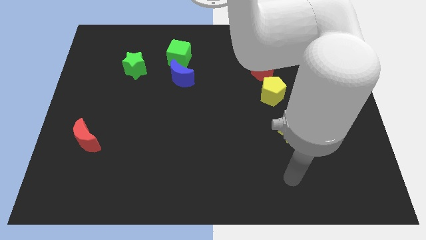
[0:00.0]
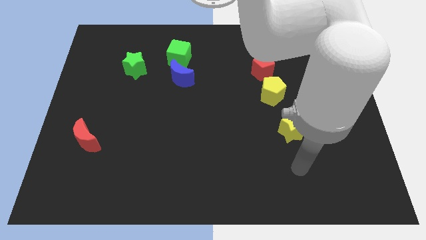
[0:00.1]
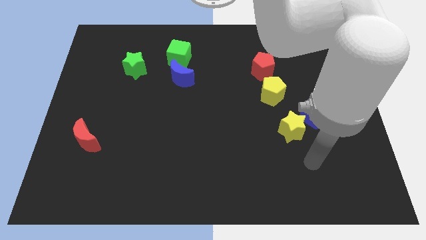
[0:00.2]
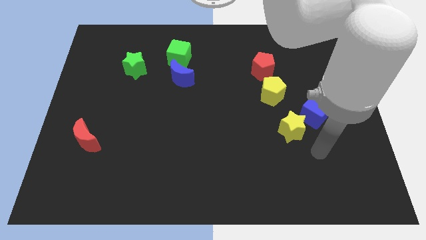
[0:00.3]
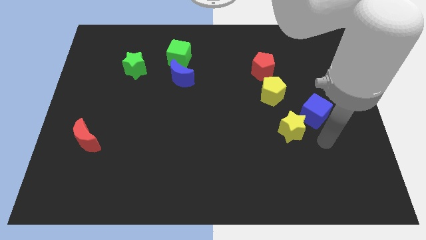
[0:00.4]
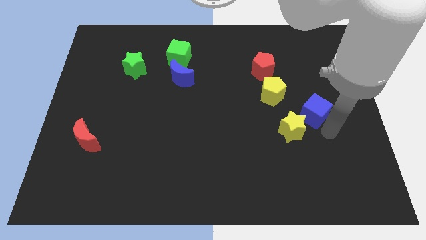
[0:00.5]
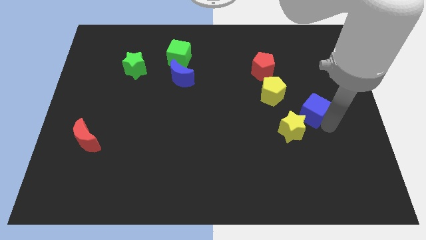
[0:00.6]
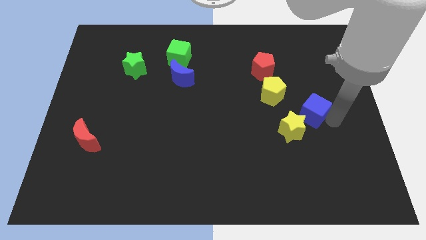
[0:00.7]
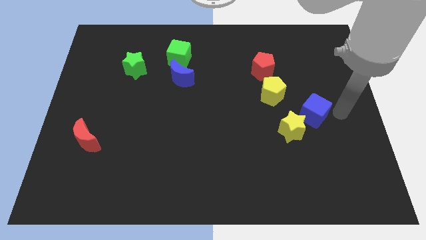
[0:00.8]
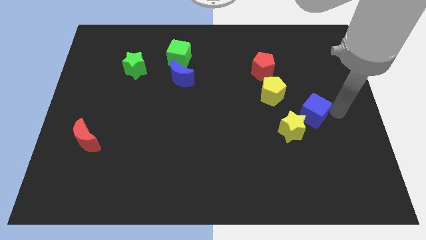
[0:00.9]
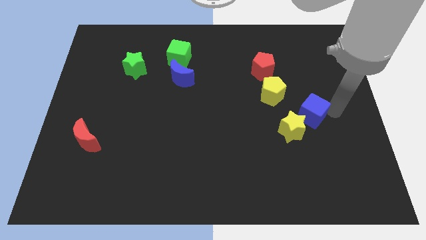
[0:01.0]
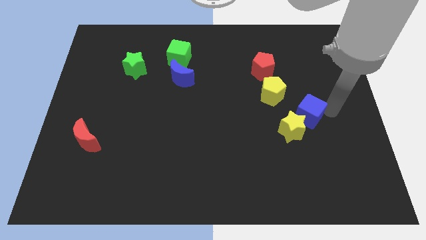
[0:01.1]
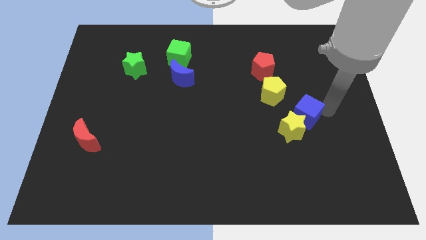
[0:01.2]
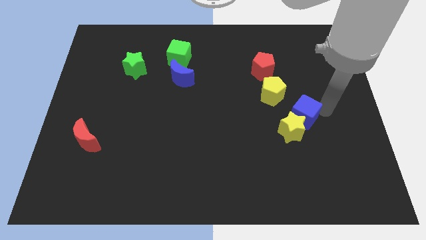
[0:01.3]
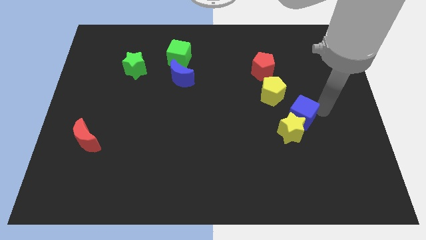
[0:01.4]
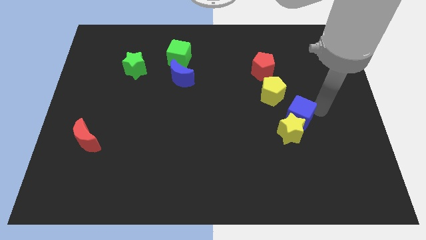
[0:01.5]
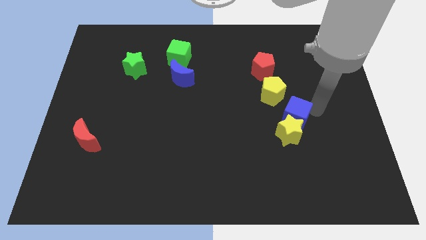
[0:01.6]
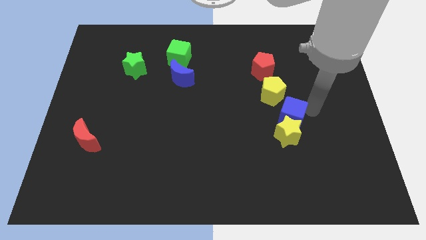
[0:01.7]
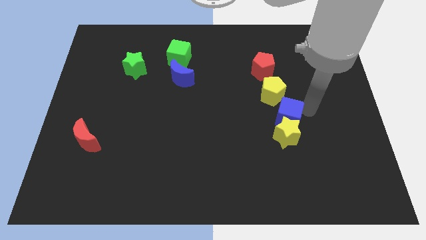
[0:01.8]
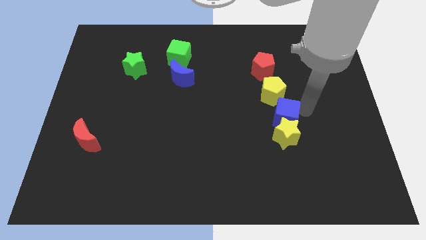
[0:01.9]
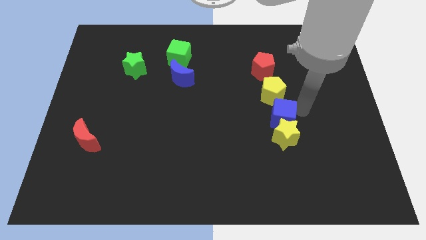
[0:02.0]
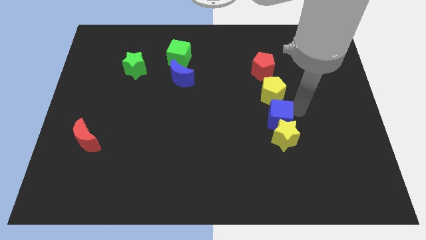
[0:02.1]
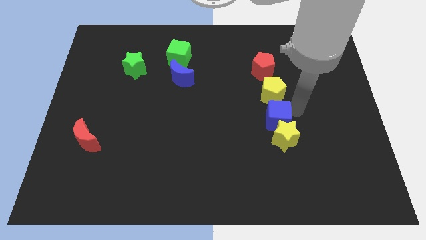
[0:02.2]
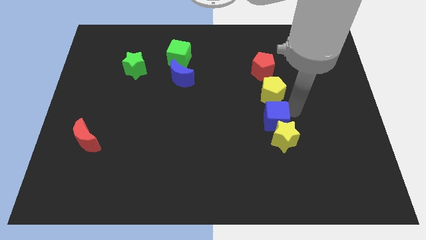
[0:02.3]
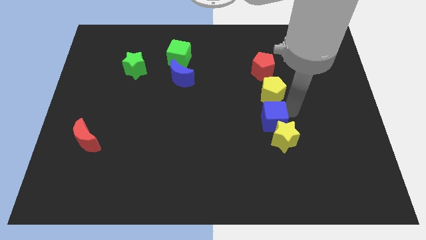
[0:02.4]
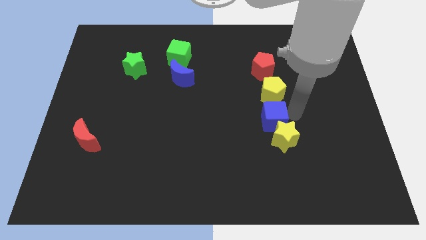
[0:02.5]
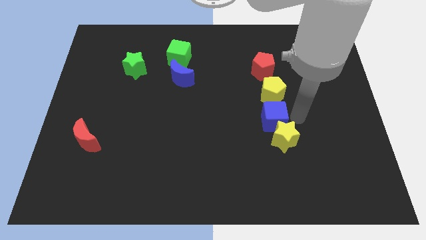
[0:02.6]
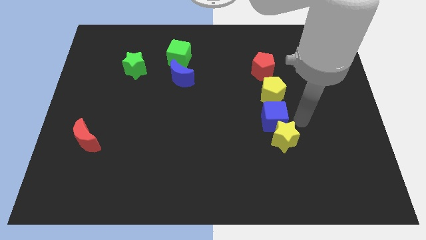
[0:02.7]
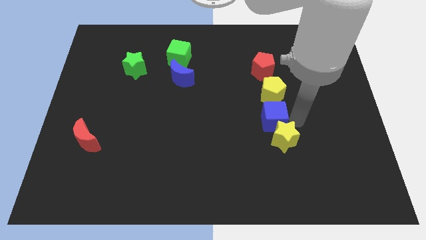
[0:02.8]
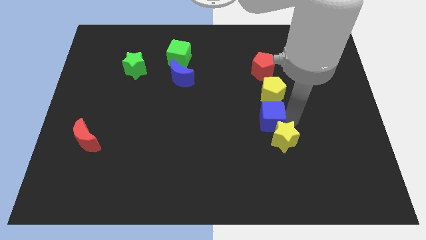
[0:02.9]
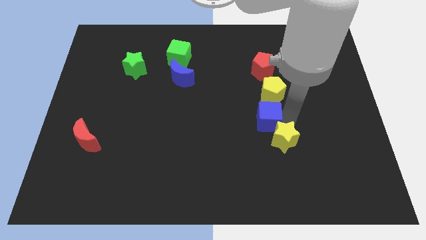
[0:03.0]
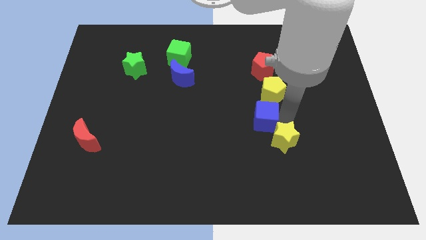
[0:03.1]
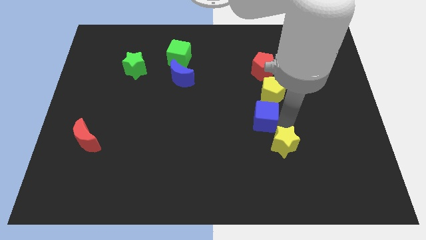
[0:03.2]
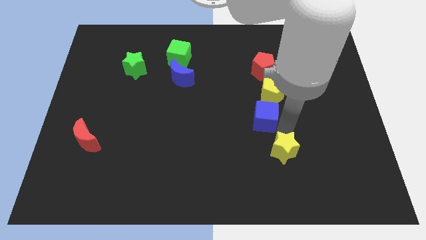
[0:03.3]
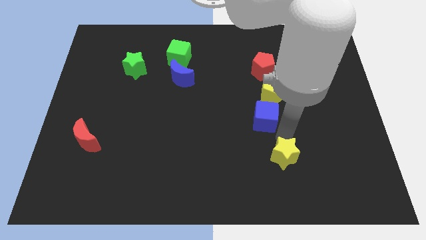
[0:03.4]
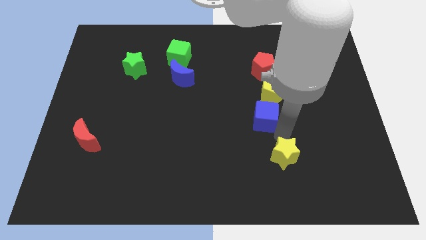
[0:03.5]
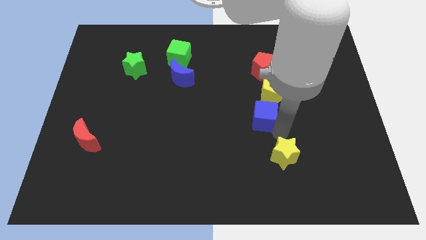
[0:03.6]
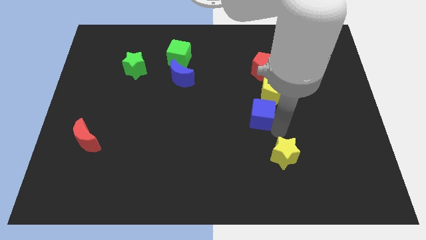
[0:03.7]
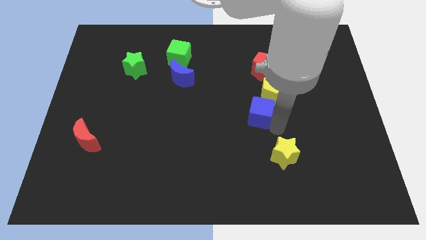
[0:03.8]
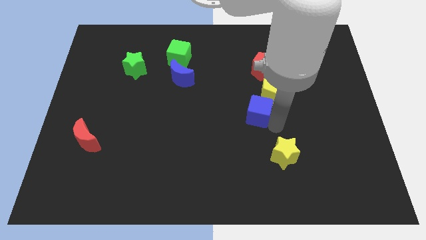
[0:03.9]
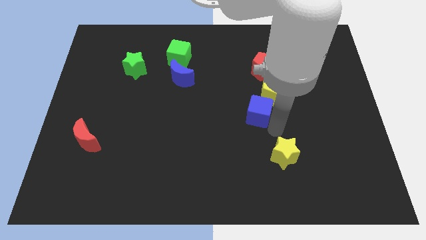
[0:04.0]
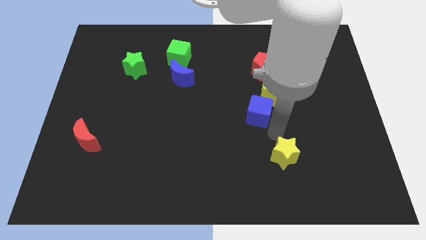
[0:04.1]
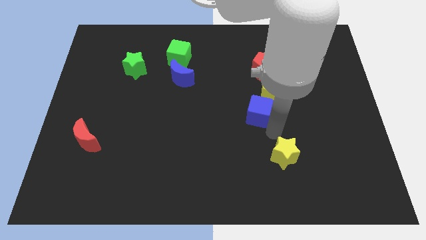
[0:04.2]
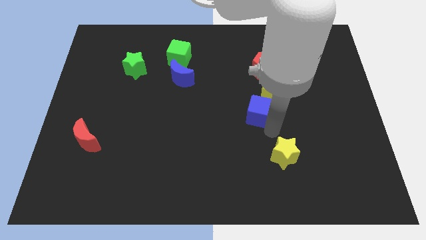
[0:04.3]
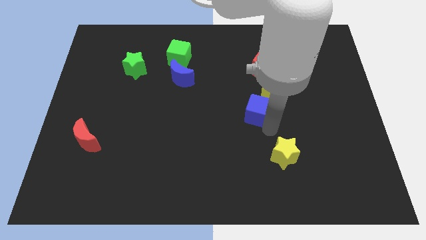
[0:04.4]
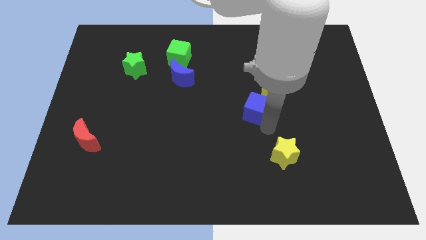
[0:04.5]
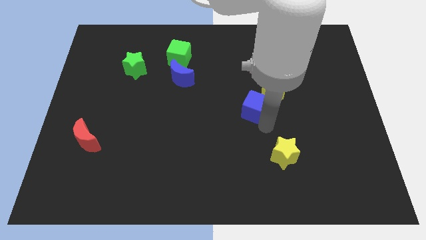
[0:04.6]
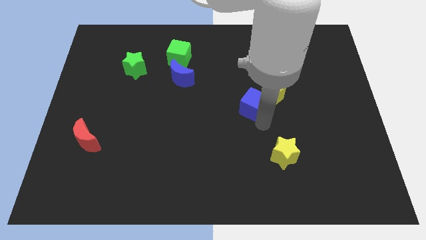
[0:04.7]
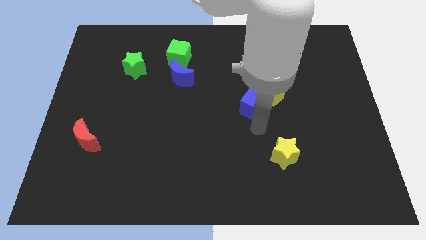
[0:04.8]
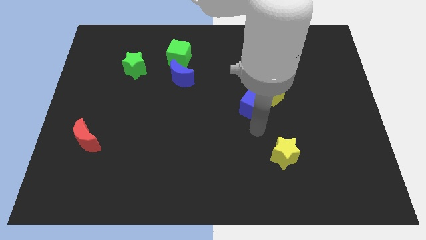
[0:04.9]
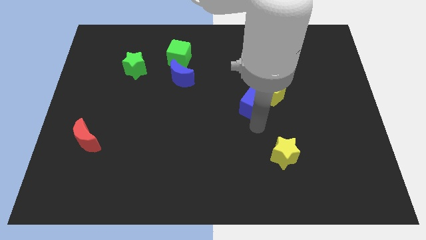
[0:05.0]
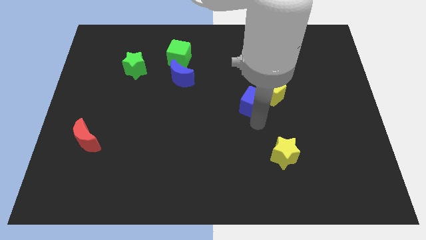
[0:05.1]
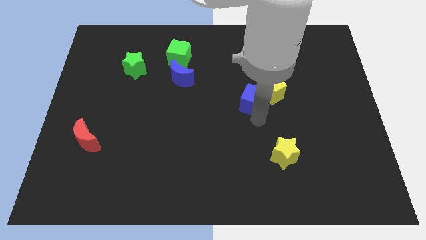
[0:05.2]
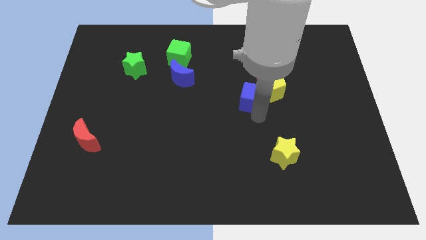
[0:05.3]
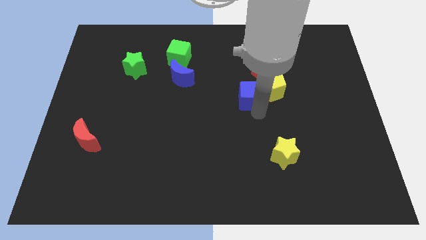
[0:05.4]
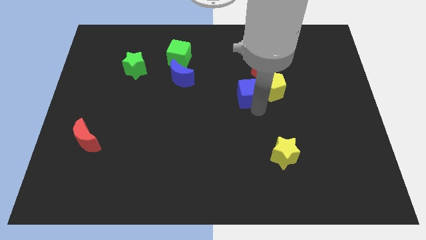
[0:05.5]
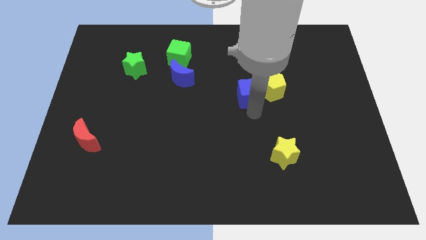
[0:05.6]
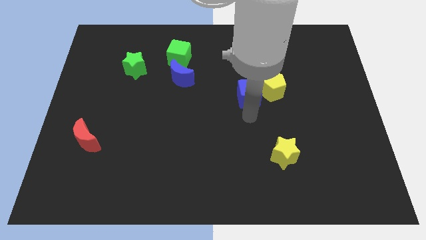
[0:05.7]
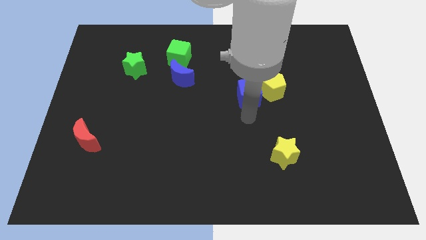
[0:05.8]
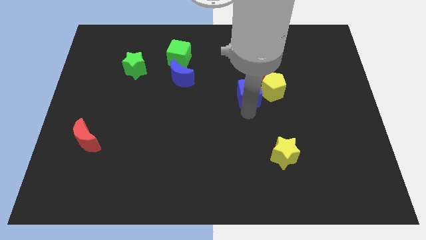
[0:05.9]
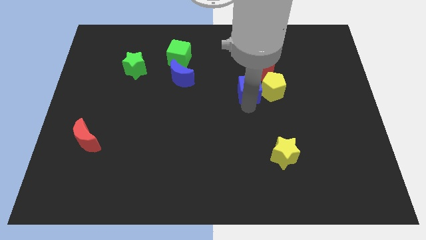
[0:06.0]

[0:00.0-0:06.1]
slide the blue cube diagonally up and to the left of the yellow pentagon
